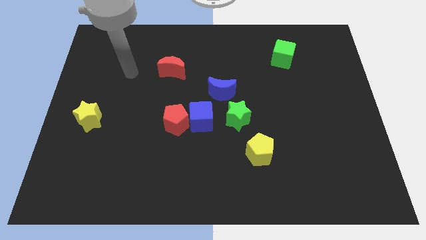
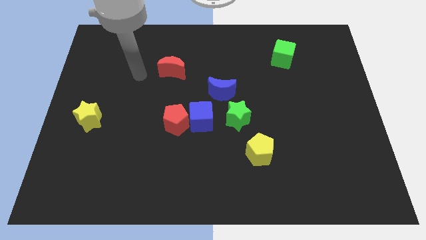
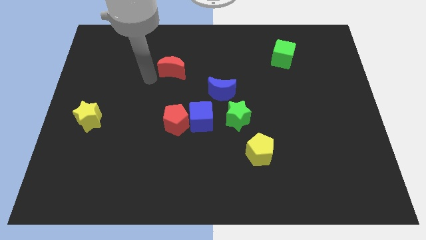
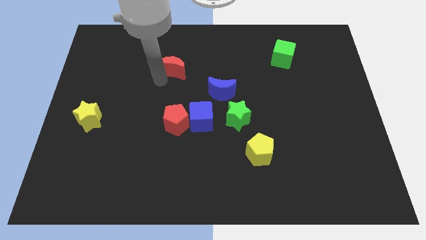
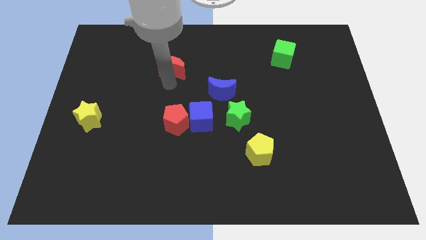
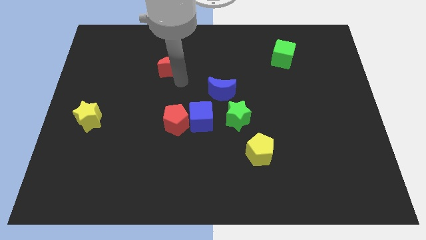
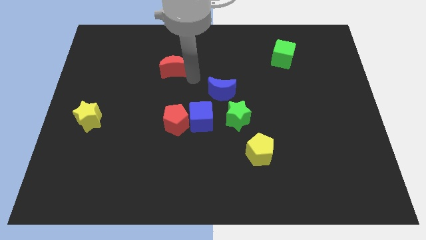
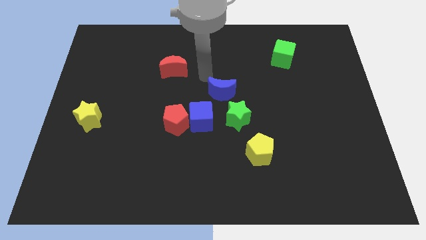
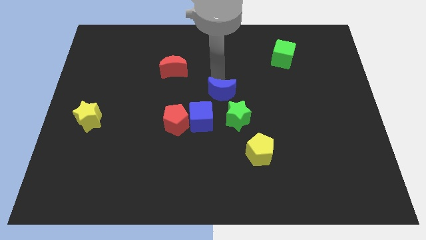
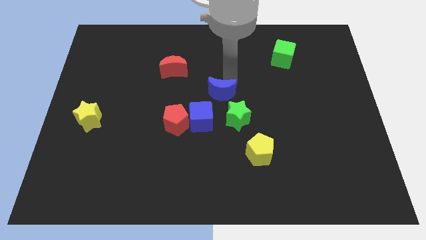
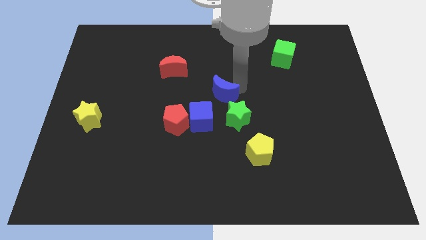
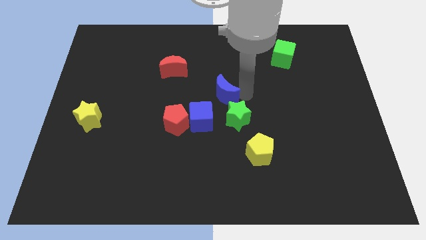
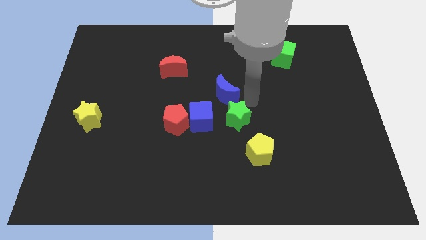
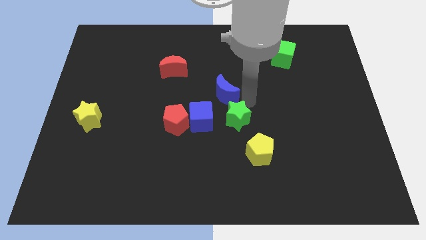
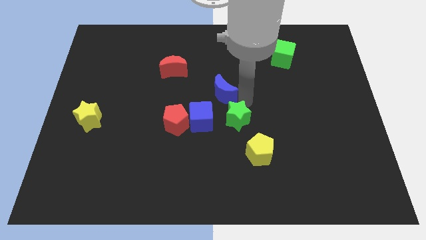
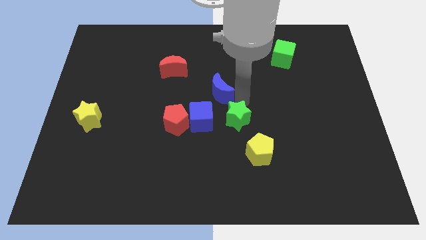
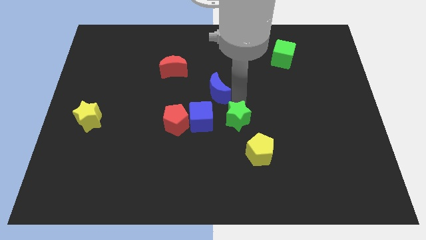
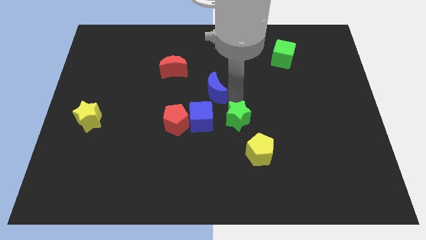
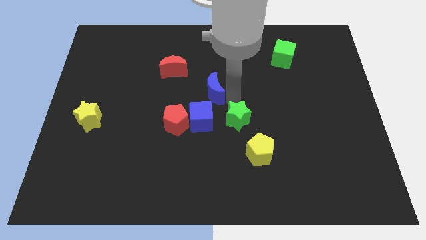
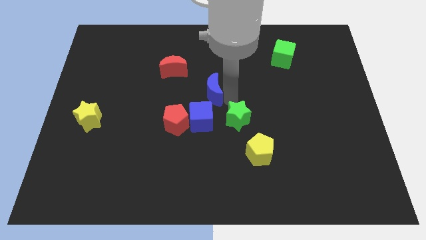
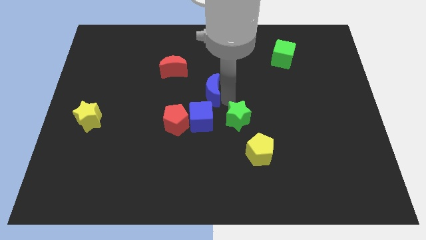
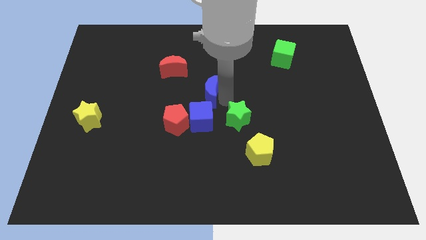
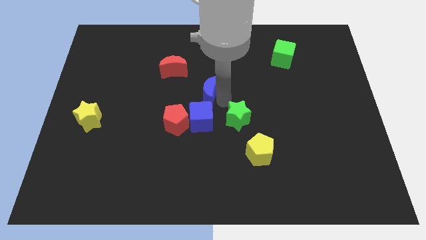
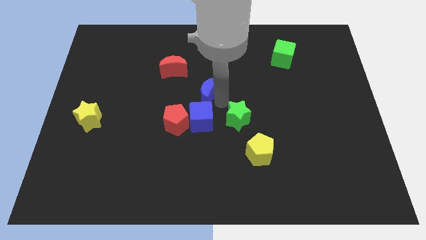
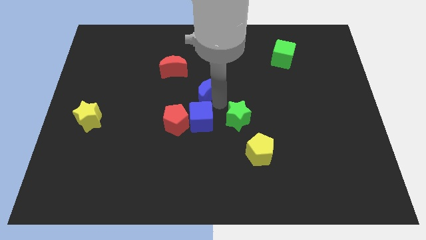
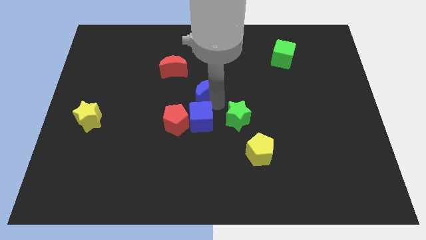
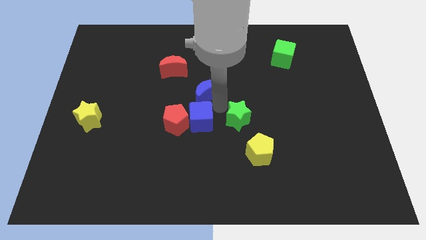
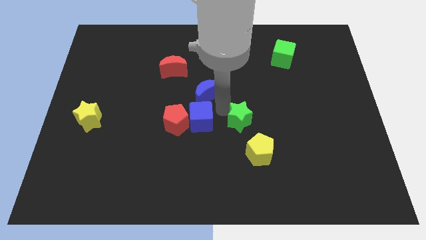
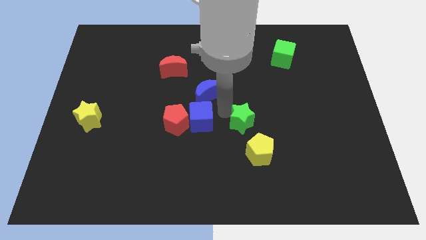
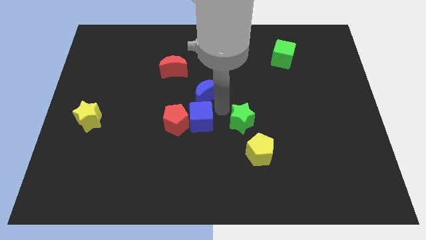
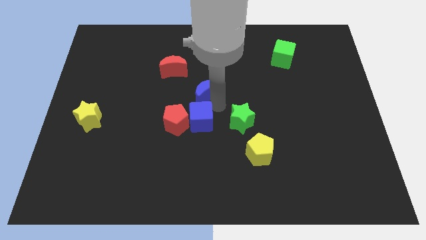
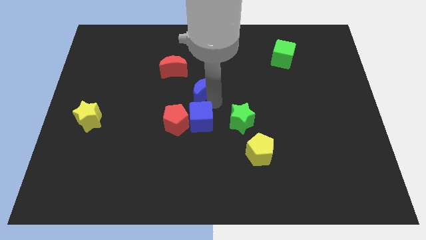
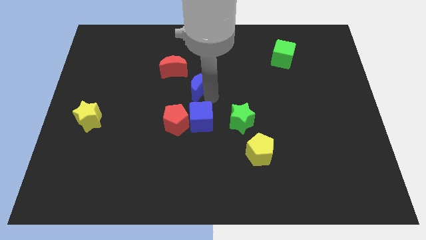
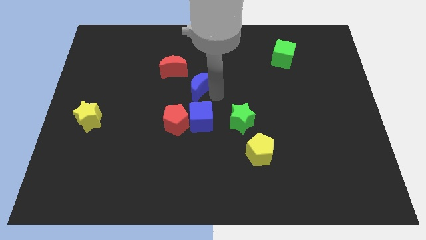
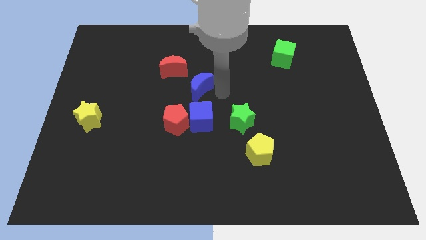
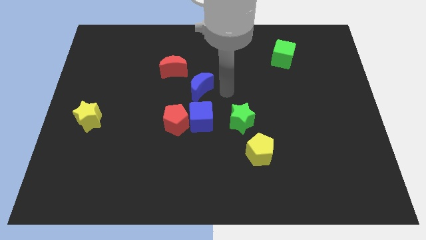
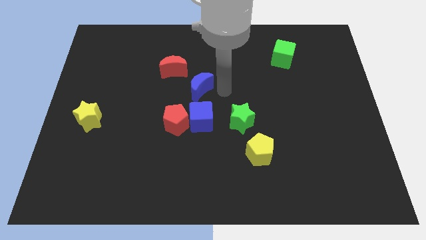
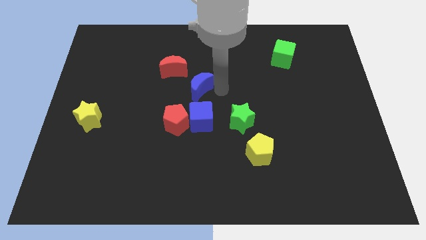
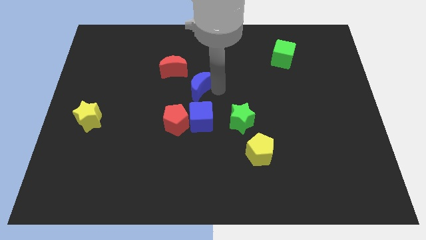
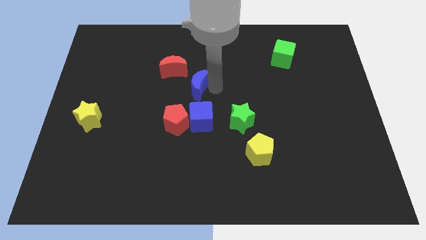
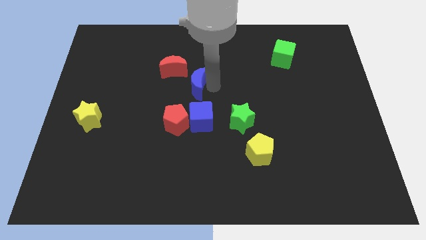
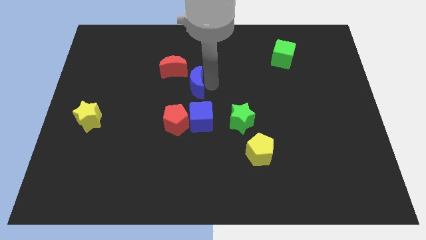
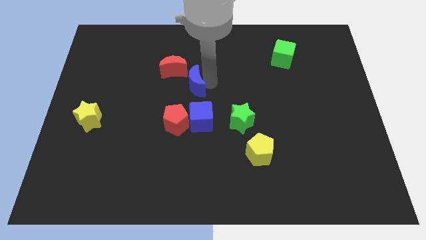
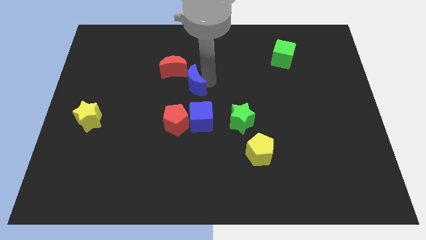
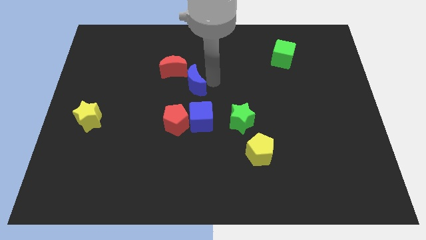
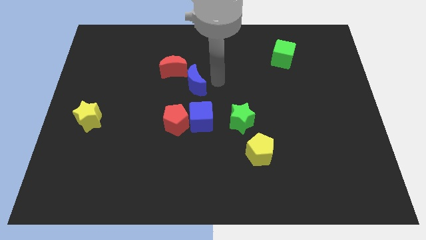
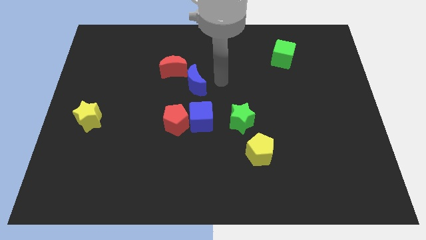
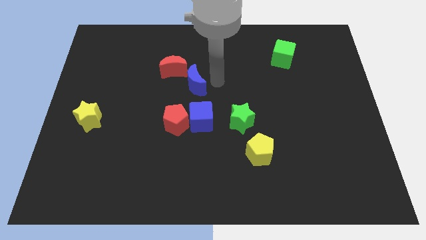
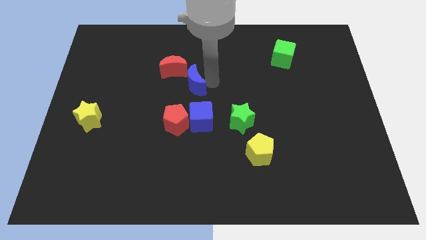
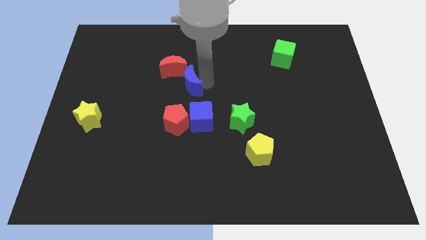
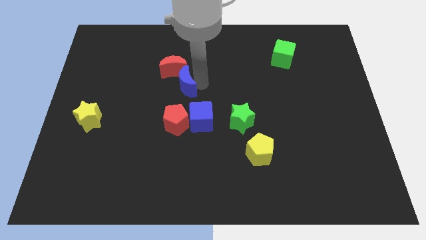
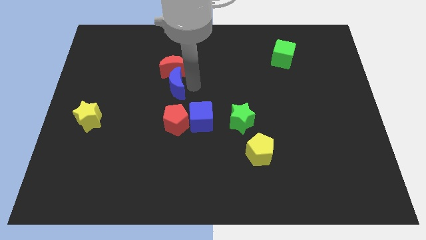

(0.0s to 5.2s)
move the blue moon diagonally down and to the left of the red moon
